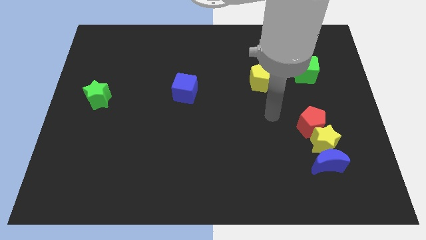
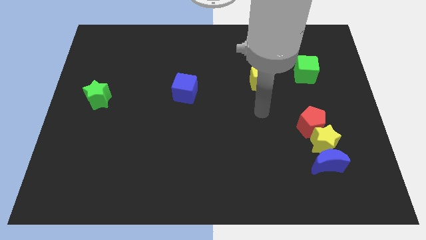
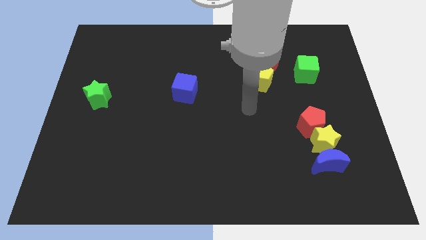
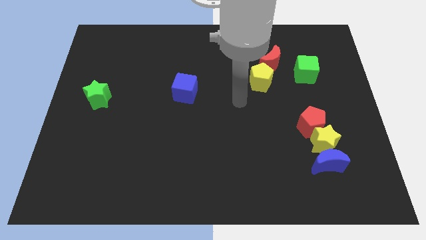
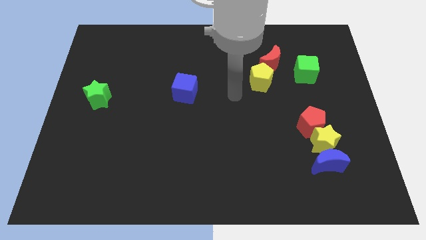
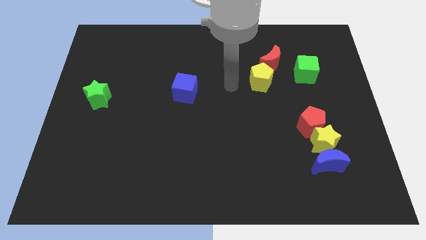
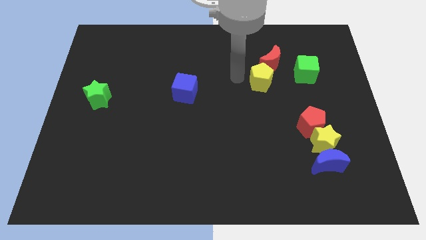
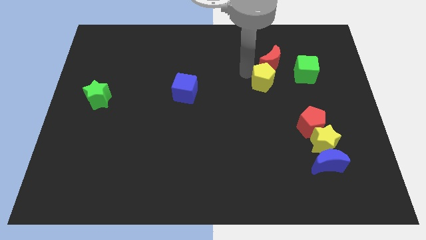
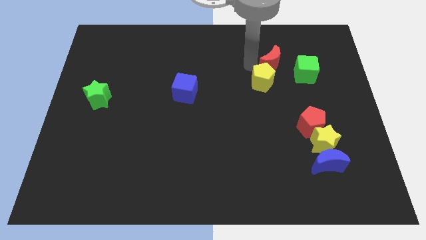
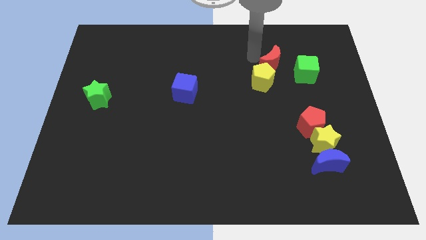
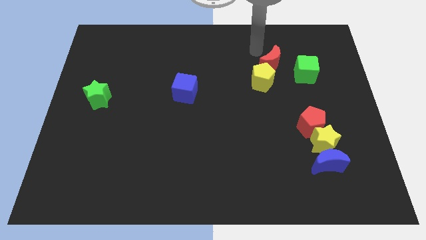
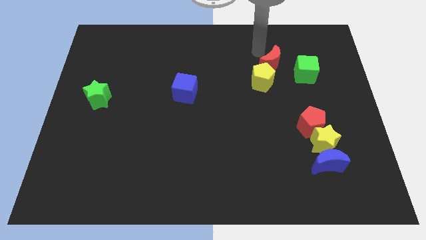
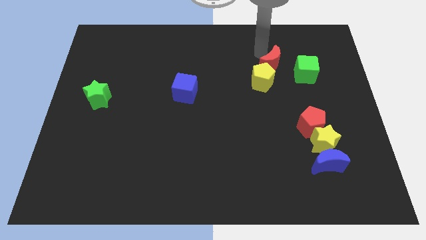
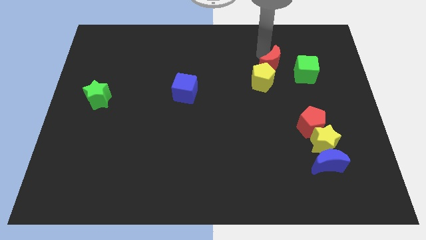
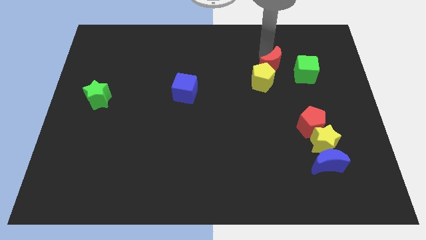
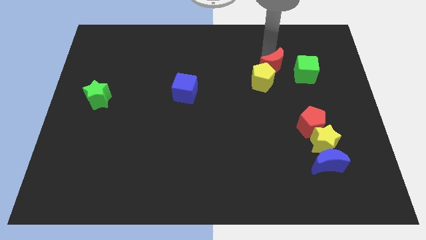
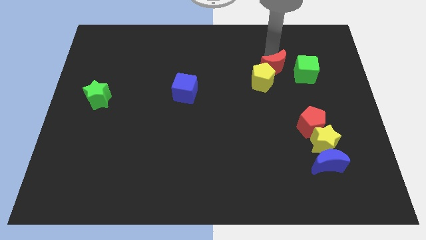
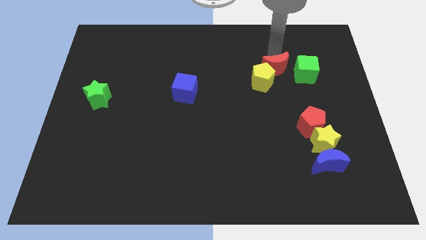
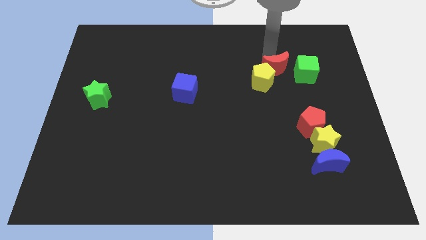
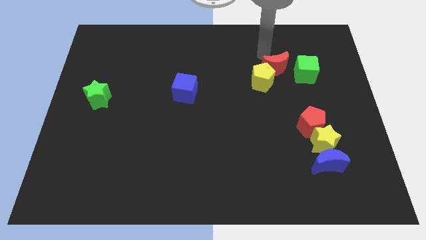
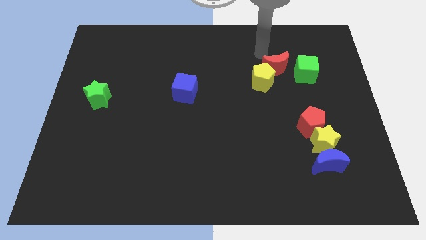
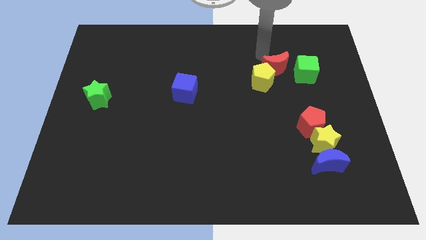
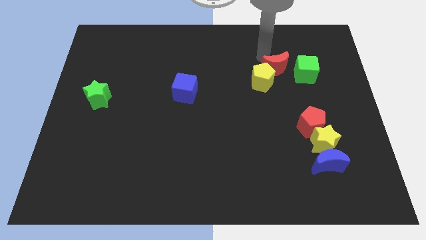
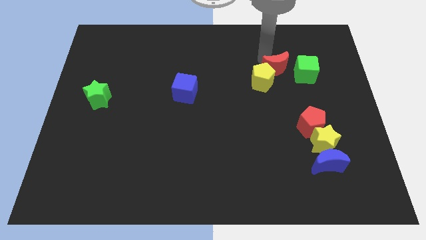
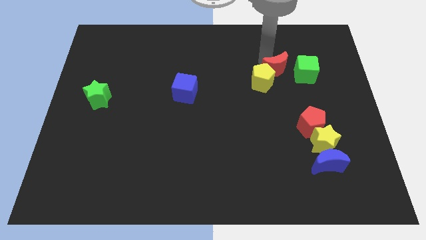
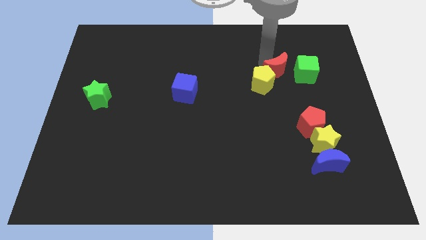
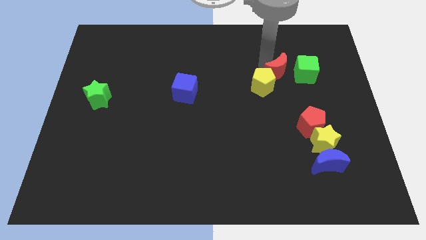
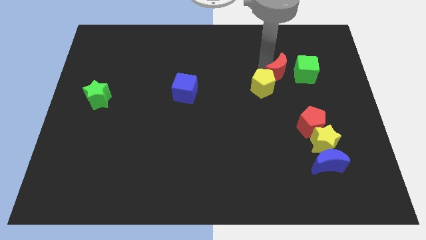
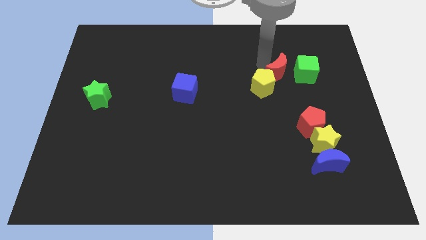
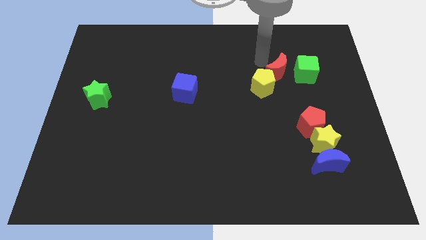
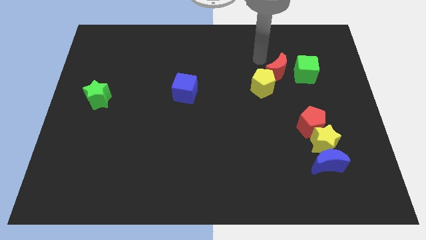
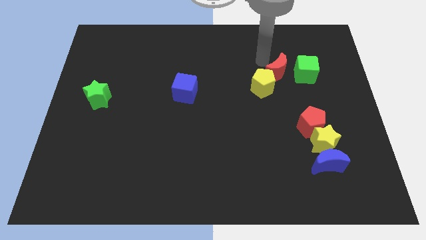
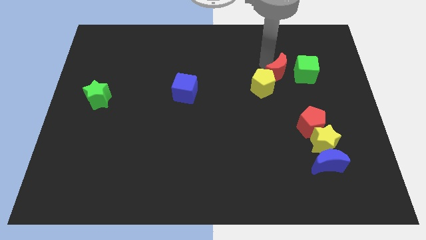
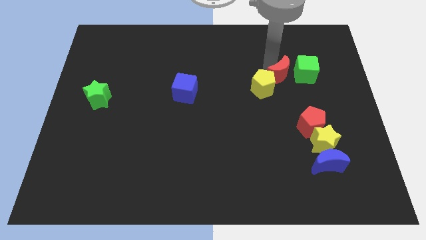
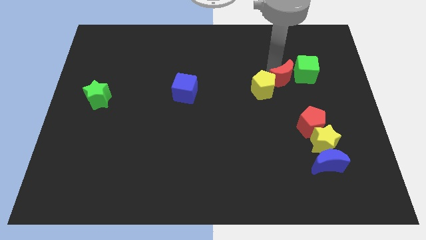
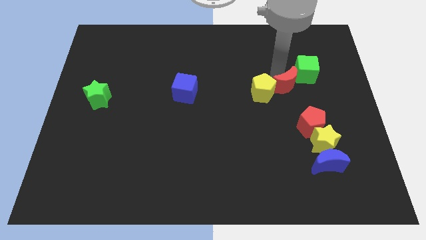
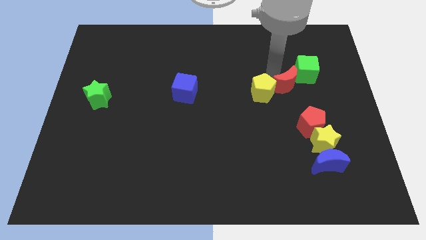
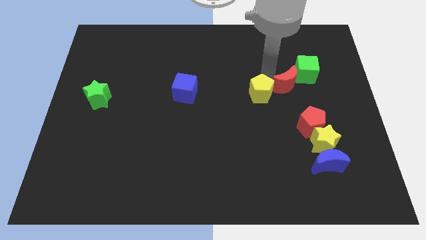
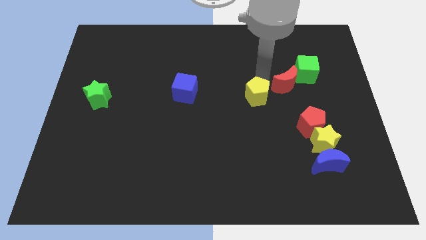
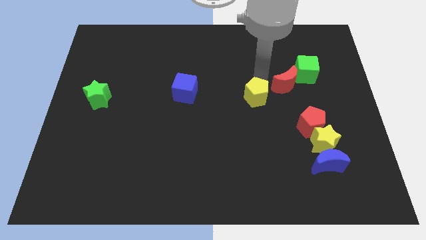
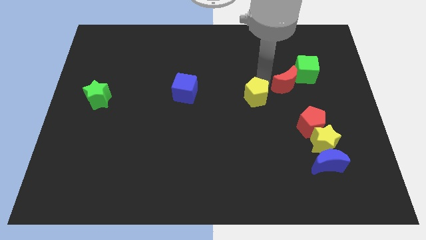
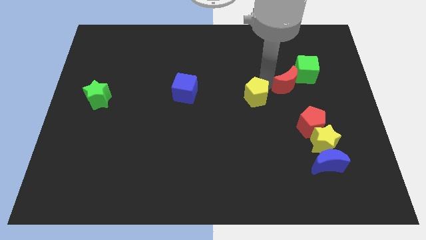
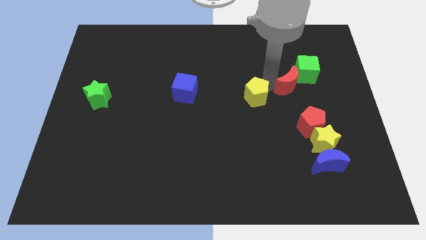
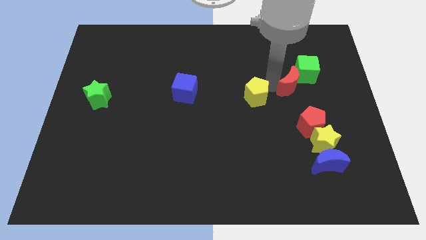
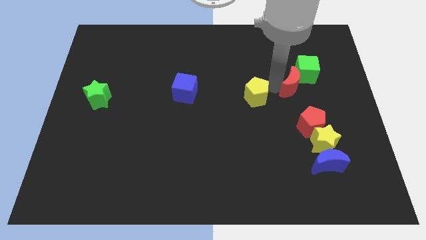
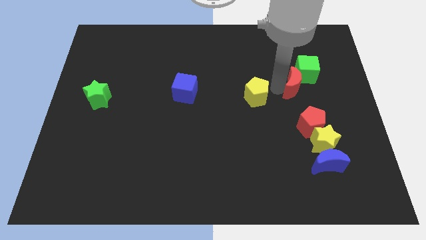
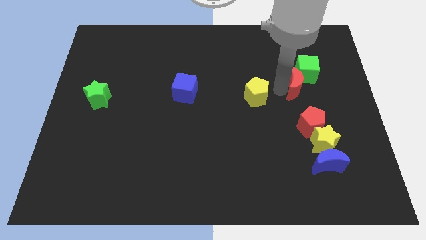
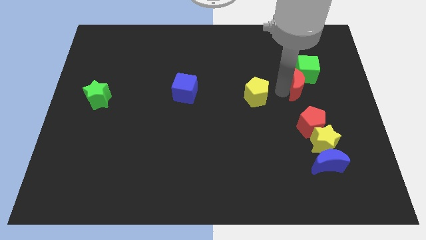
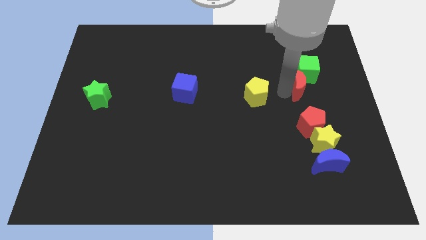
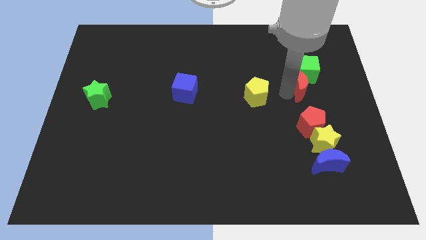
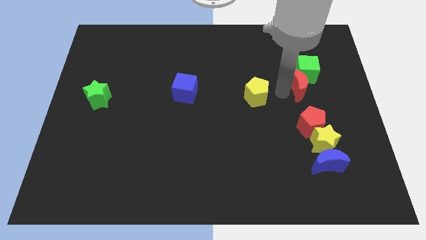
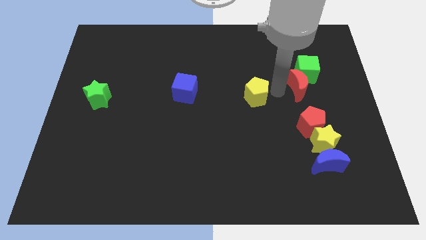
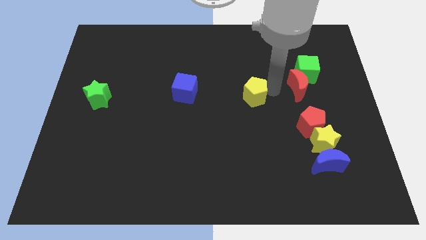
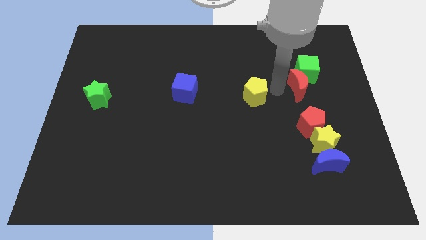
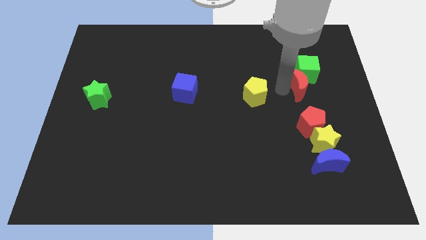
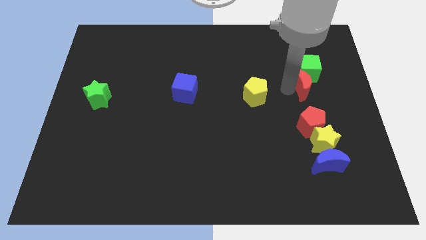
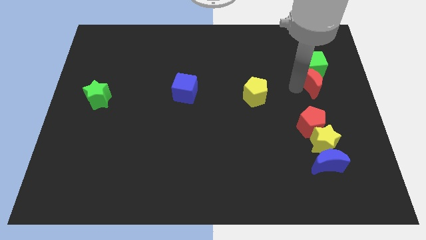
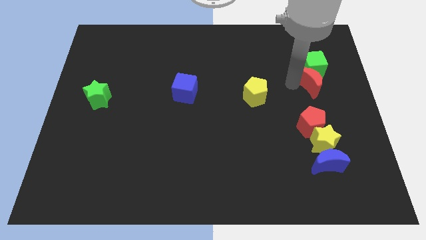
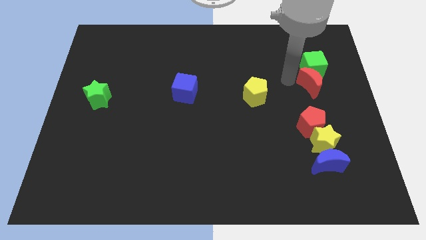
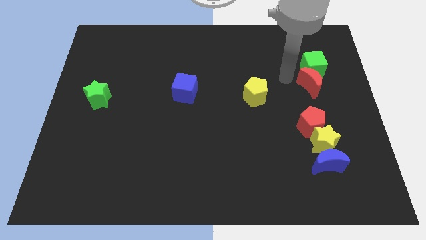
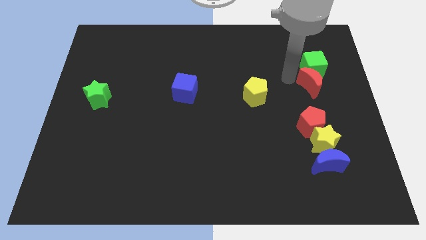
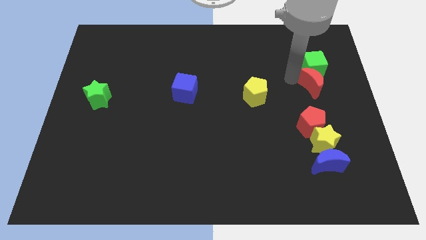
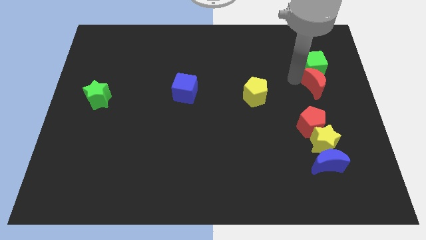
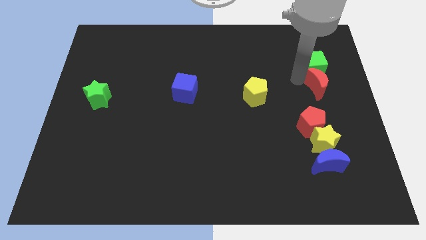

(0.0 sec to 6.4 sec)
push the red moon to the right side of the board
